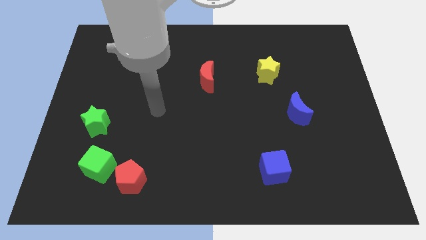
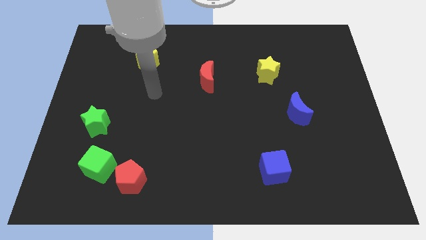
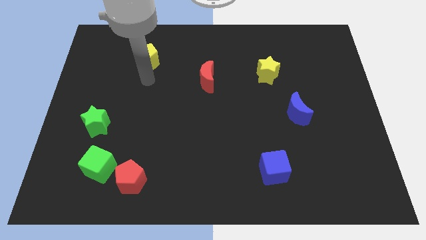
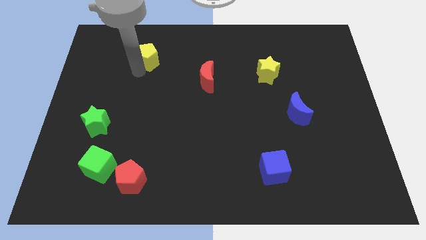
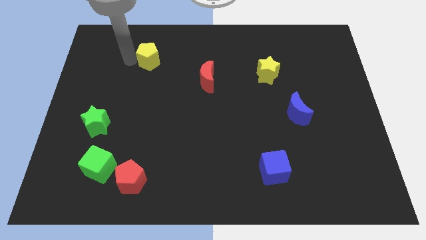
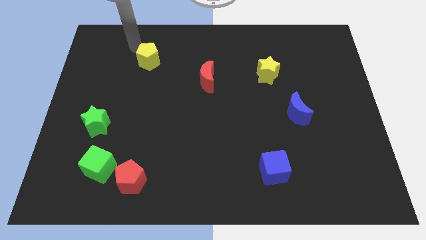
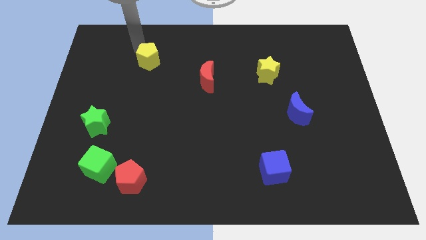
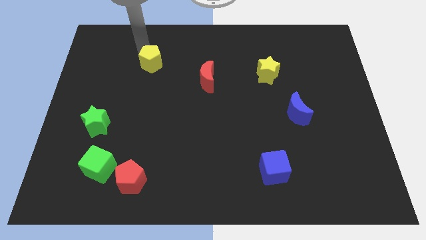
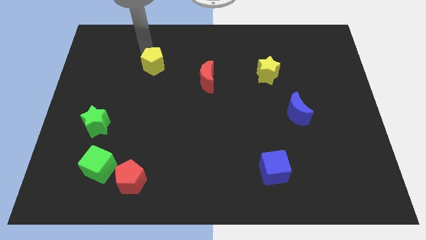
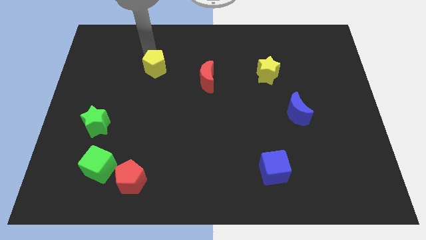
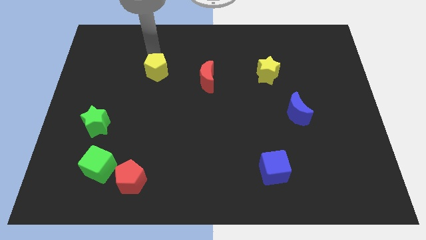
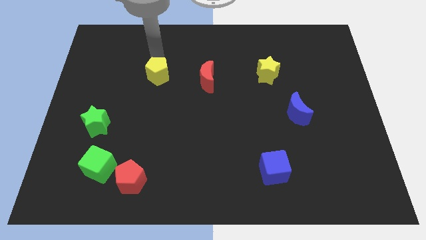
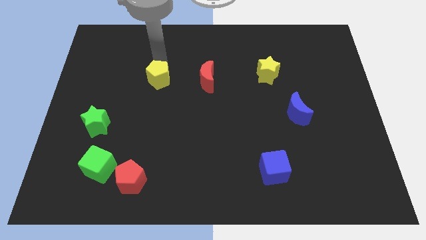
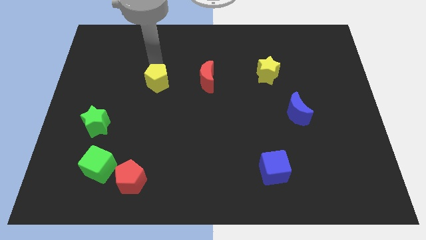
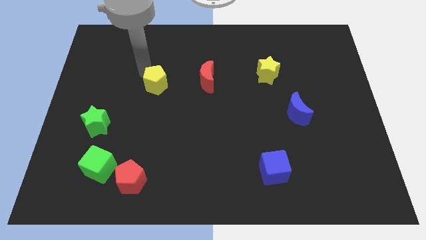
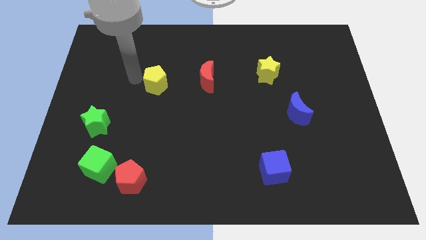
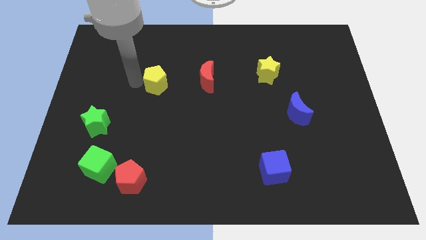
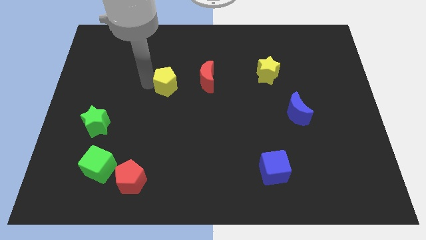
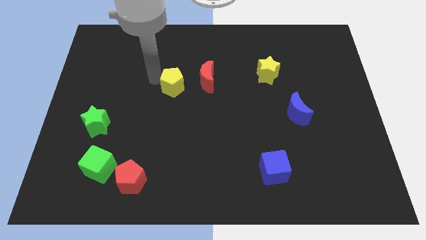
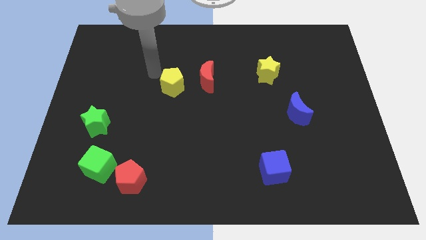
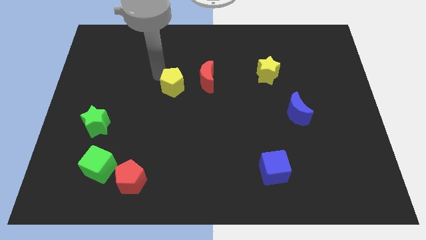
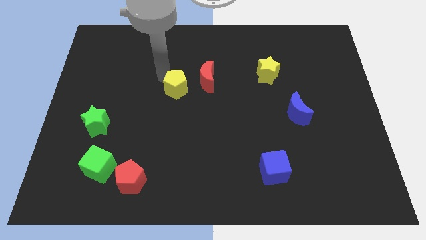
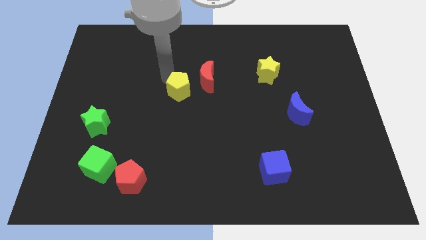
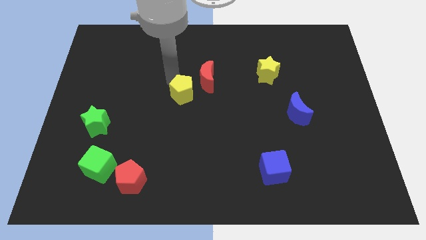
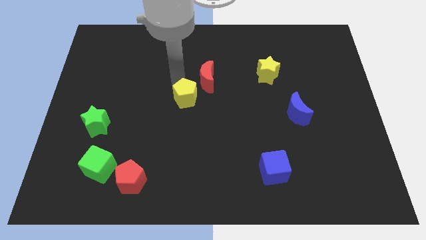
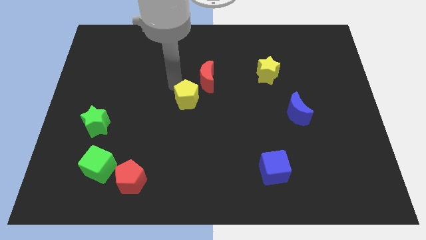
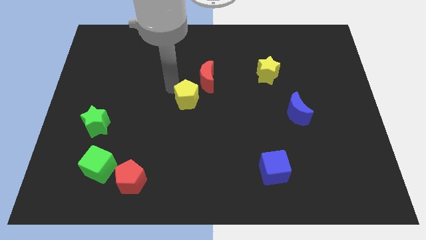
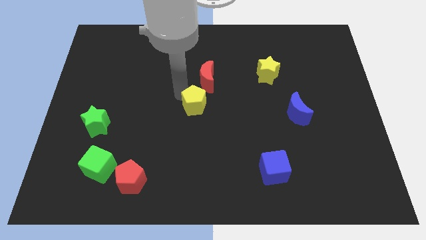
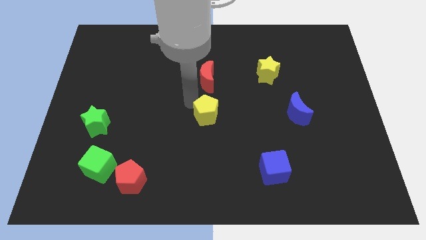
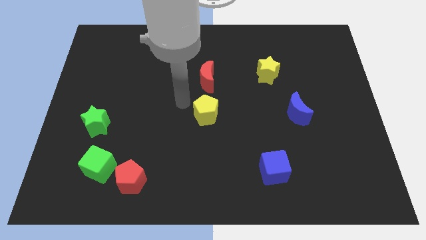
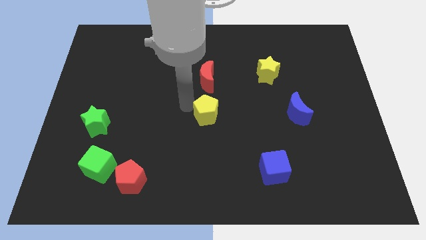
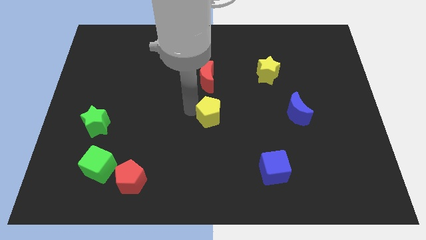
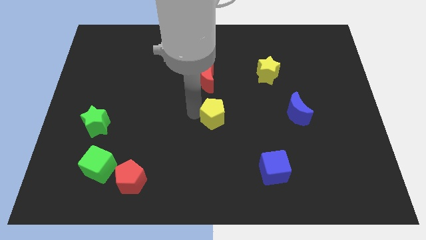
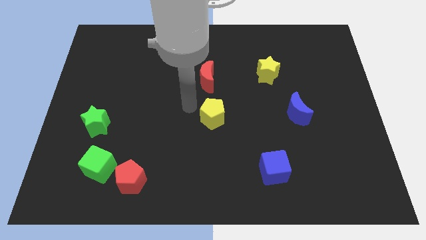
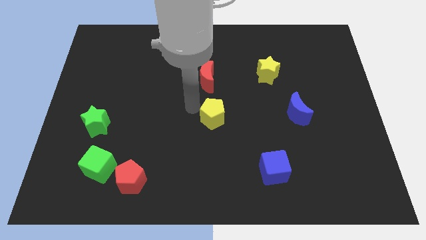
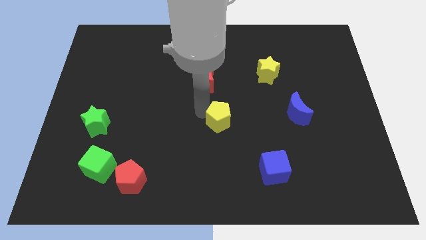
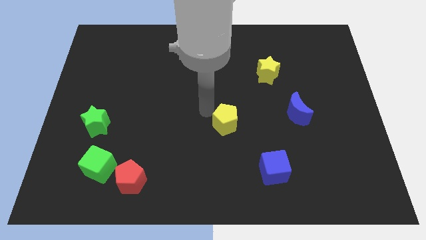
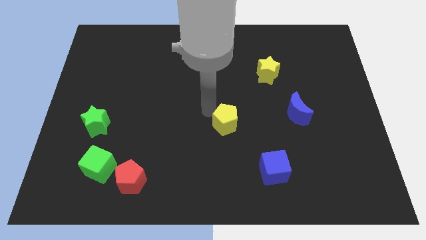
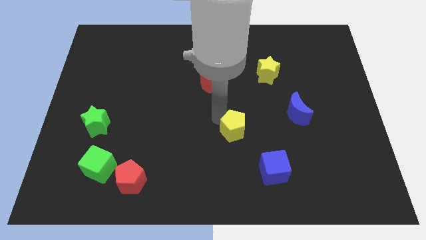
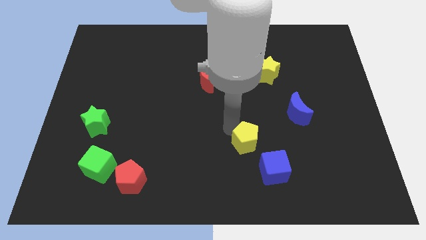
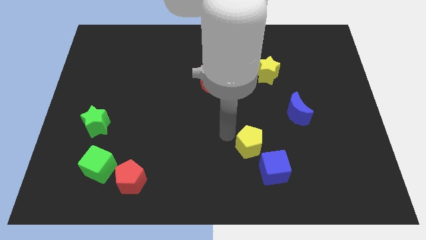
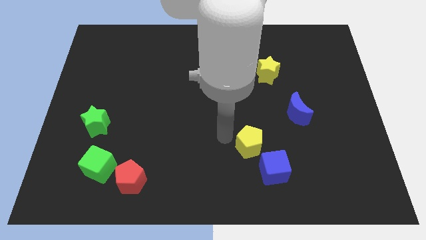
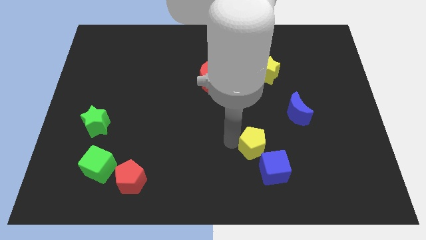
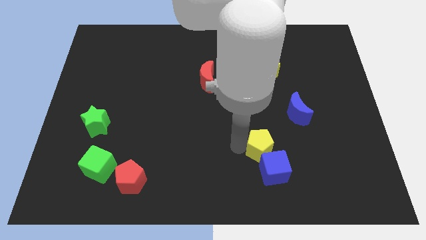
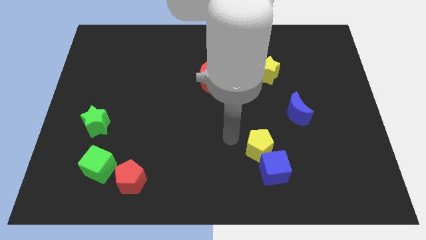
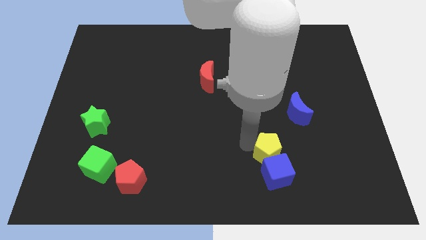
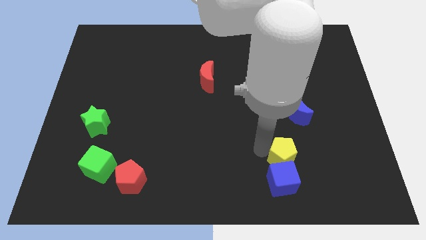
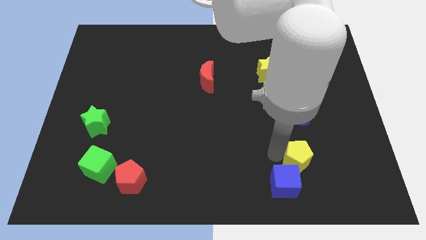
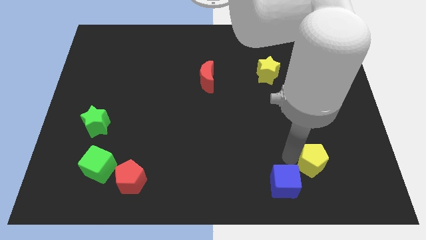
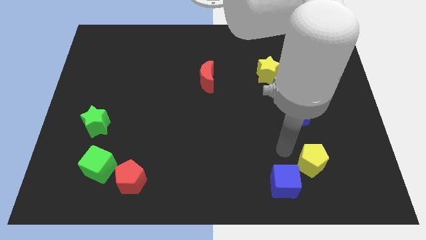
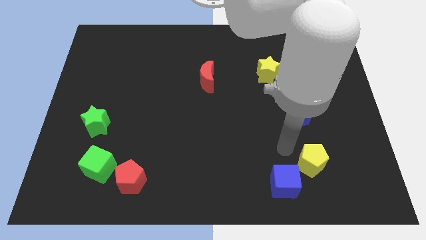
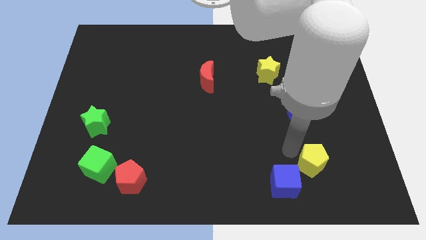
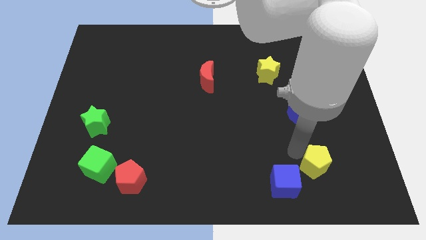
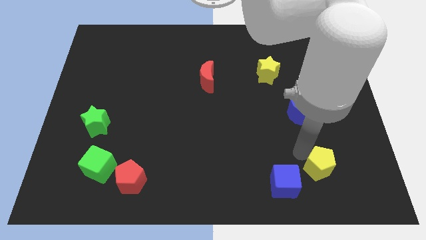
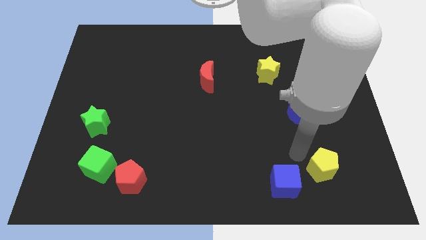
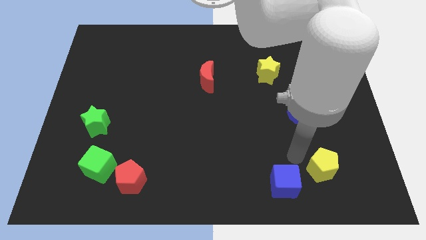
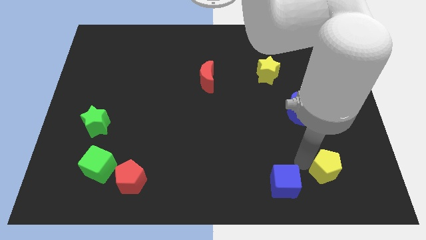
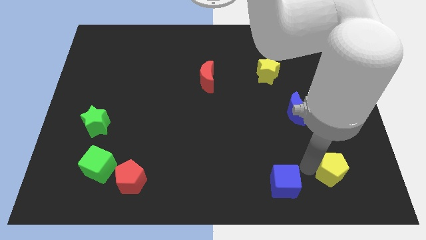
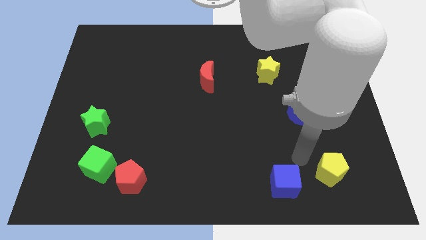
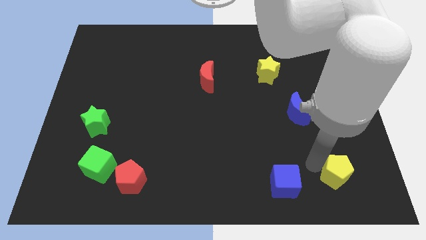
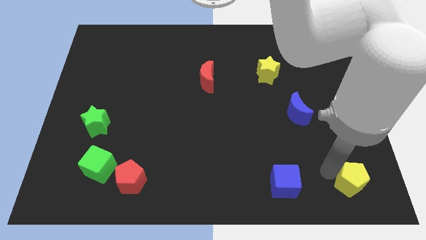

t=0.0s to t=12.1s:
move the yellow pentagon to the bottom right corner

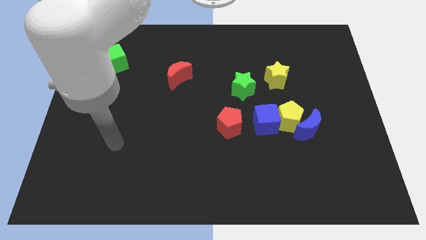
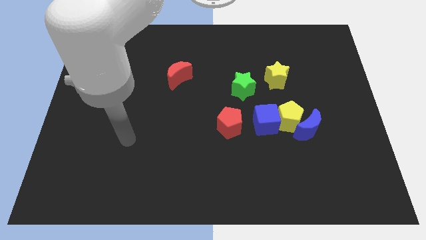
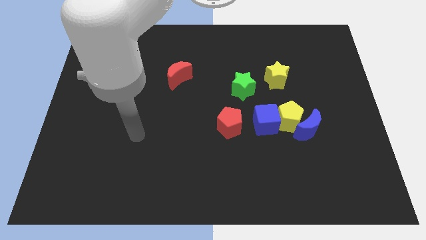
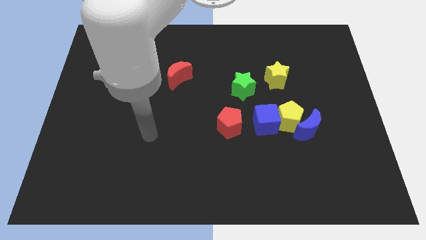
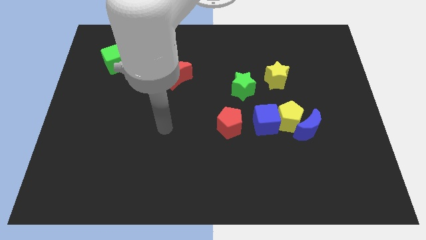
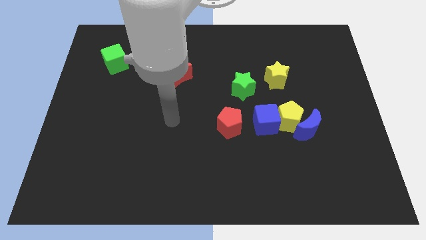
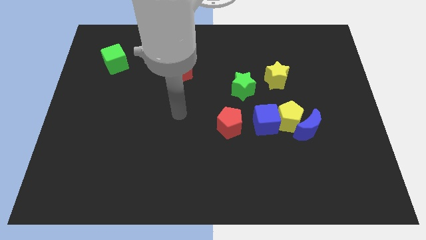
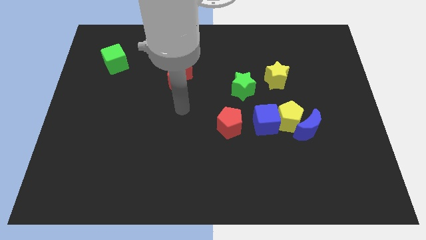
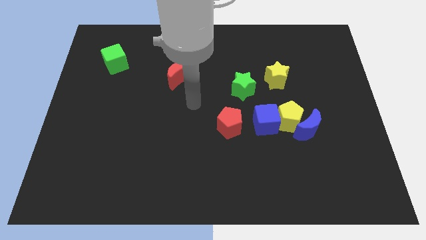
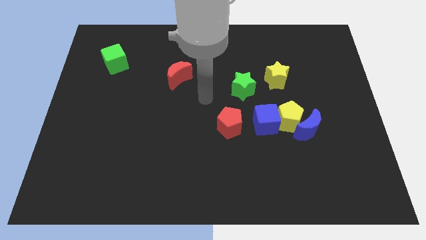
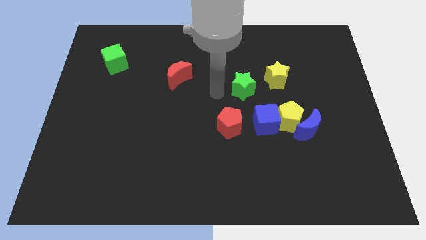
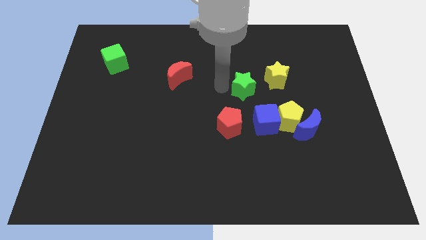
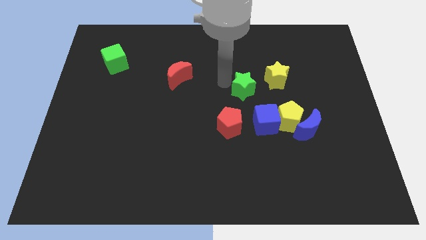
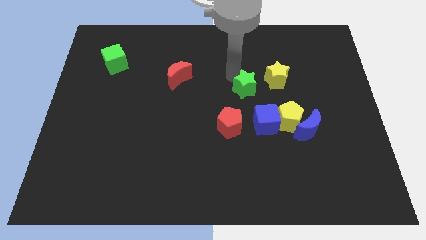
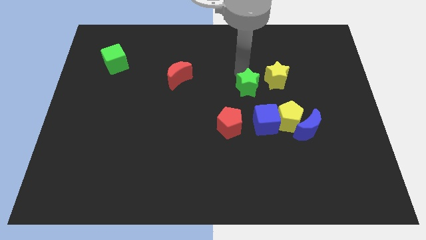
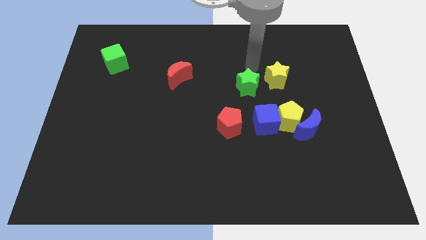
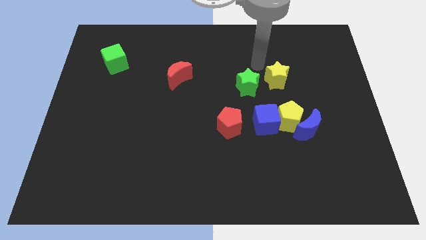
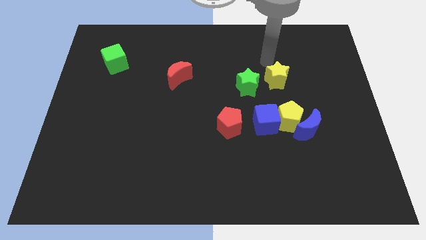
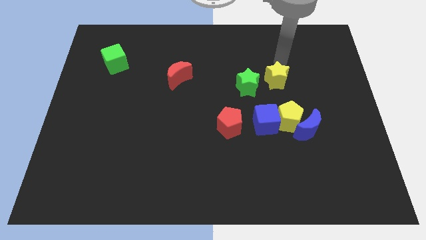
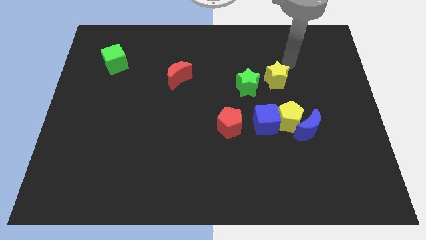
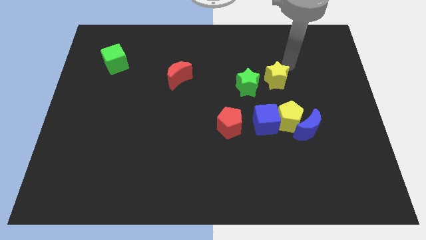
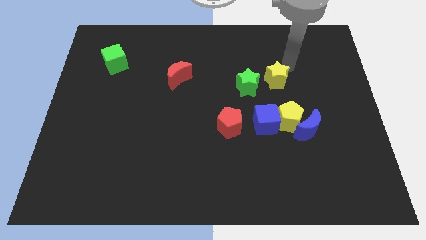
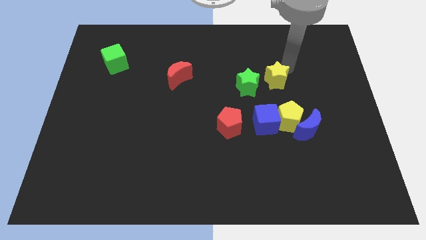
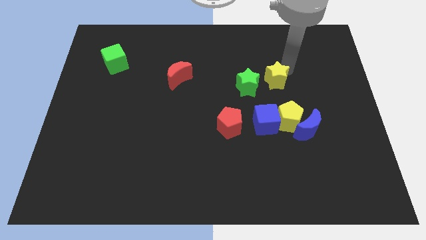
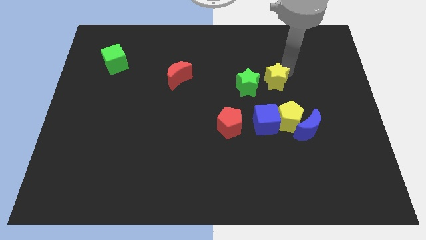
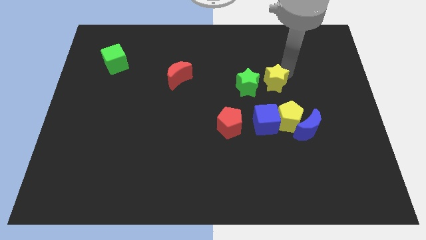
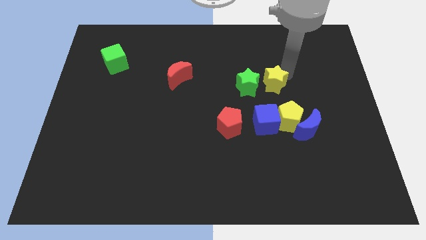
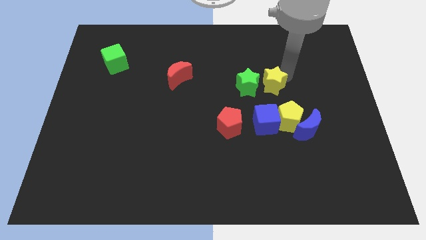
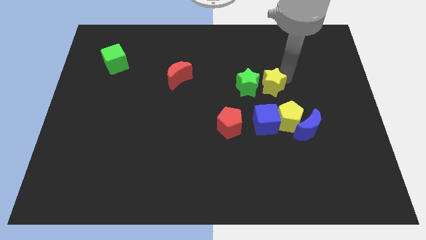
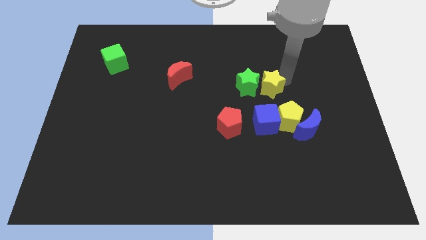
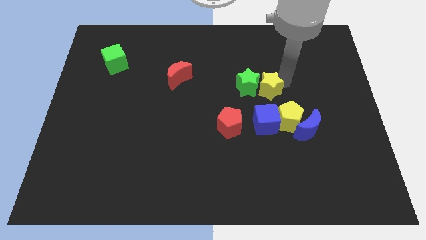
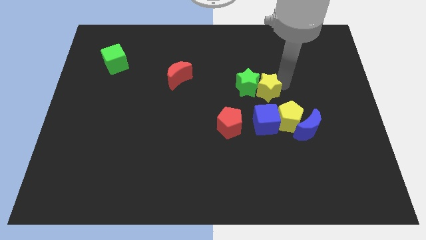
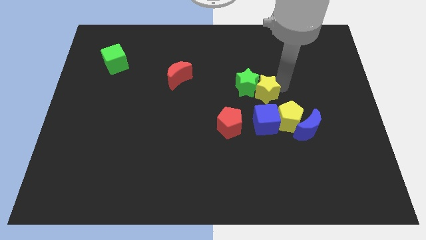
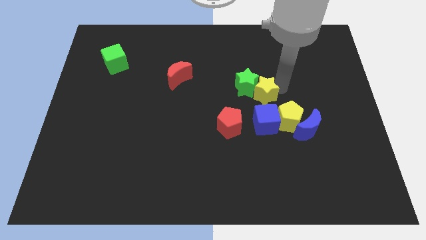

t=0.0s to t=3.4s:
slide the yellow star to the center of the board
